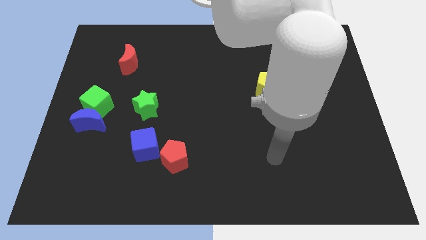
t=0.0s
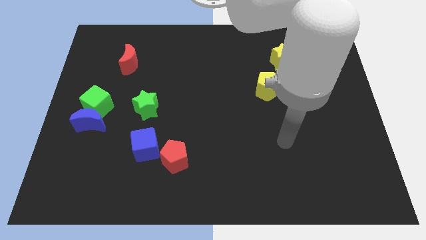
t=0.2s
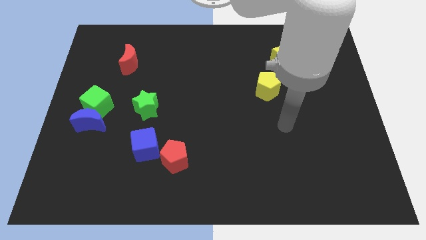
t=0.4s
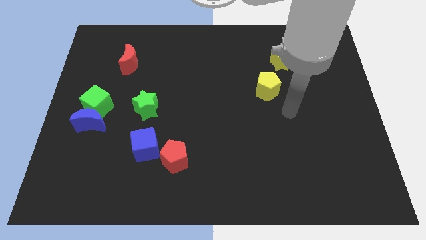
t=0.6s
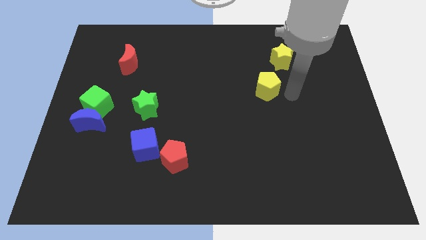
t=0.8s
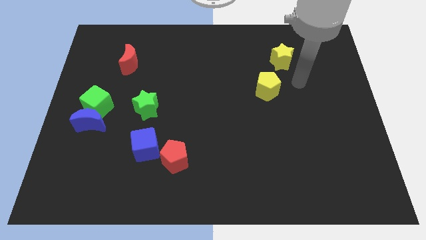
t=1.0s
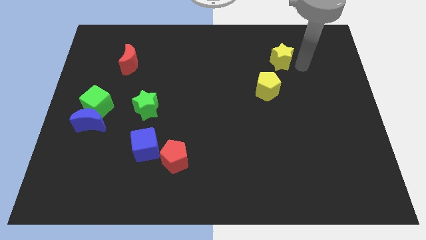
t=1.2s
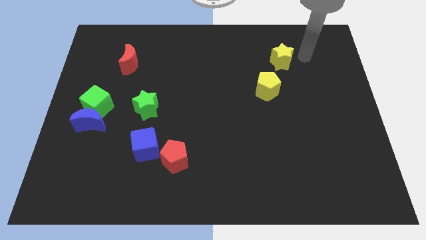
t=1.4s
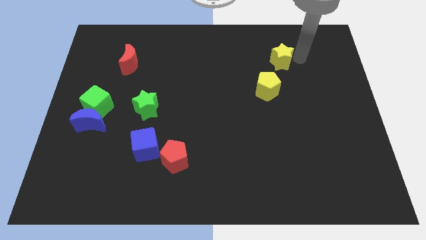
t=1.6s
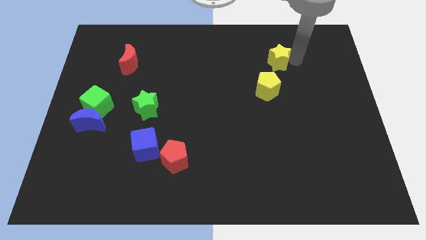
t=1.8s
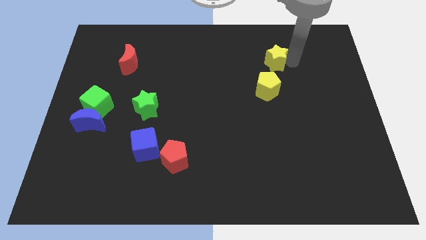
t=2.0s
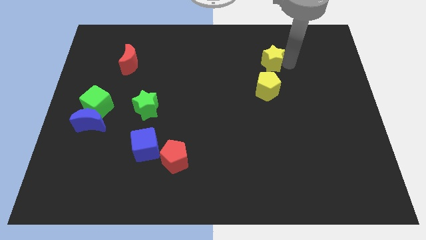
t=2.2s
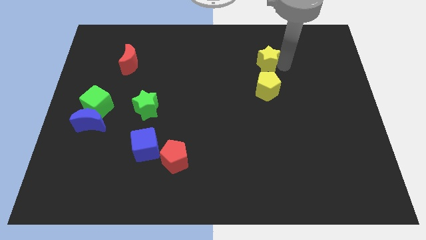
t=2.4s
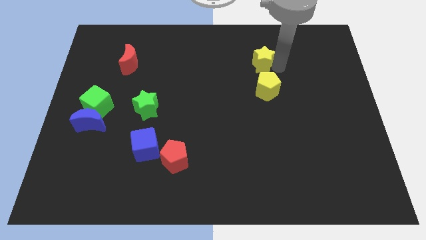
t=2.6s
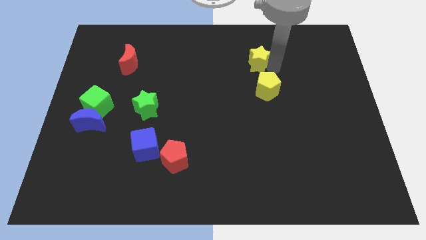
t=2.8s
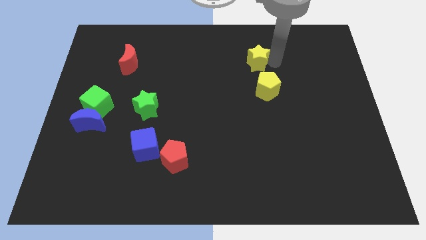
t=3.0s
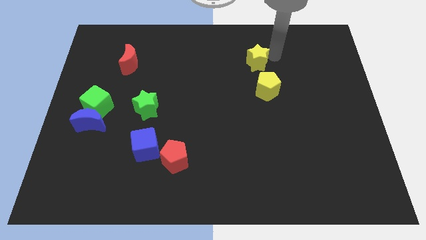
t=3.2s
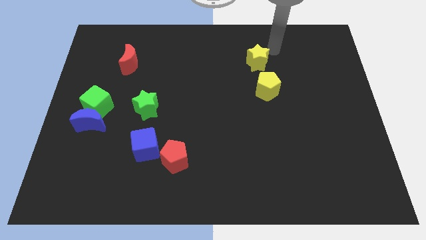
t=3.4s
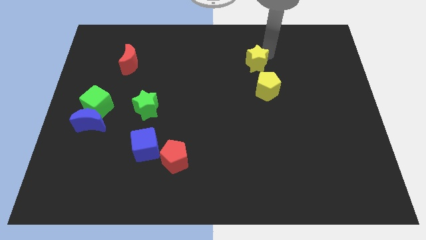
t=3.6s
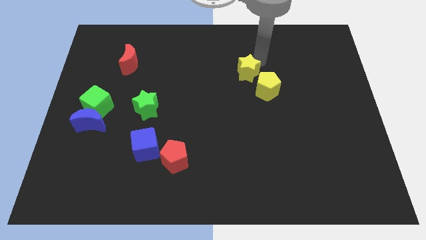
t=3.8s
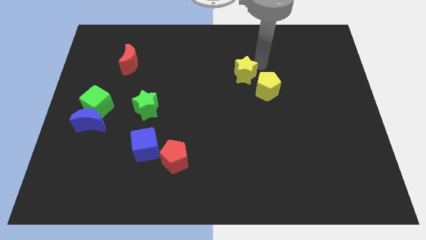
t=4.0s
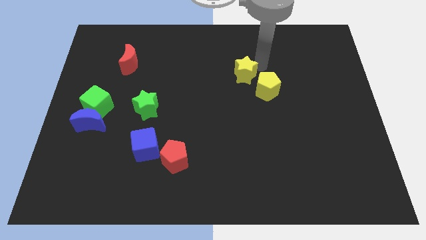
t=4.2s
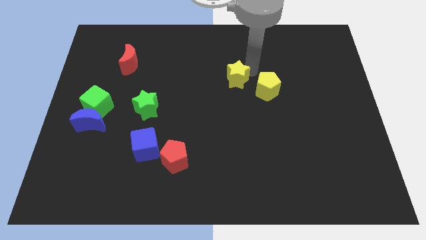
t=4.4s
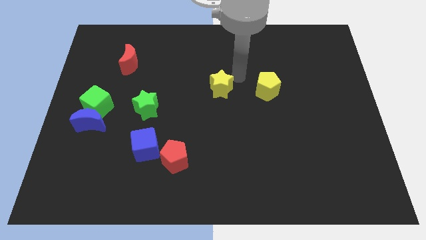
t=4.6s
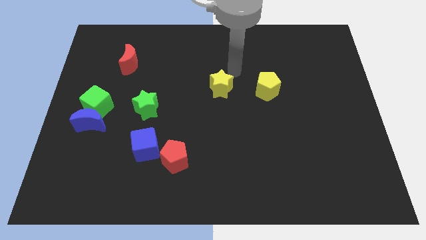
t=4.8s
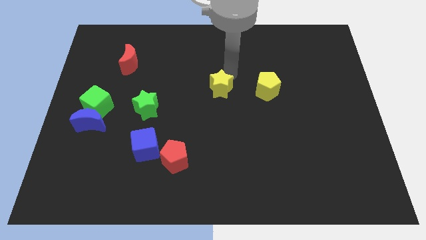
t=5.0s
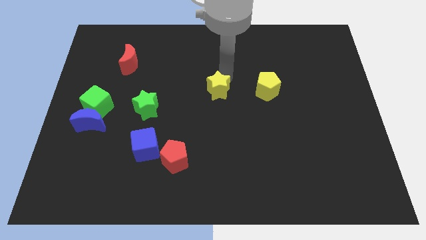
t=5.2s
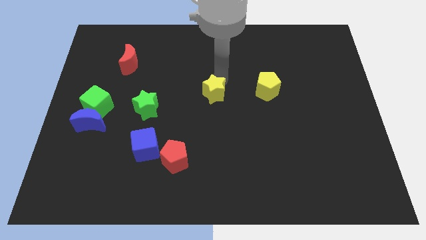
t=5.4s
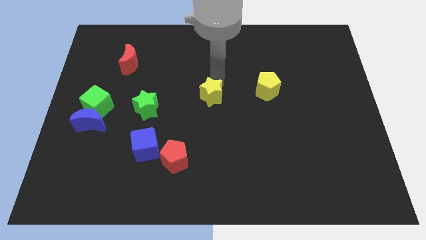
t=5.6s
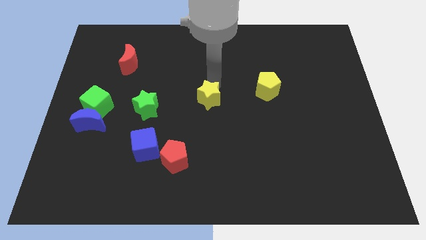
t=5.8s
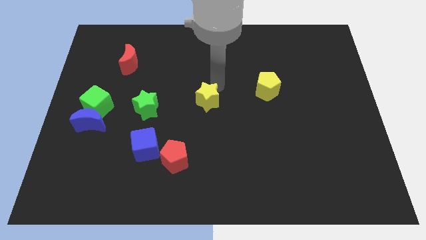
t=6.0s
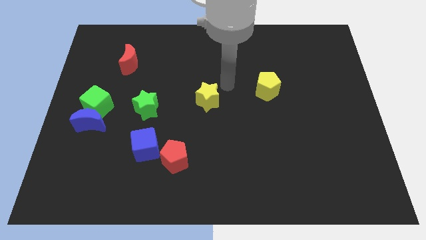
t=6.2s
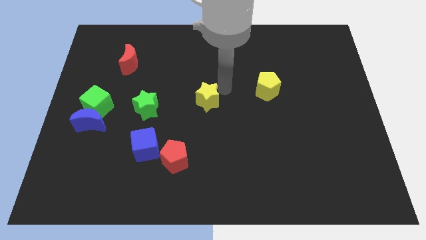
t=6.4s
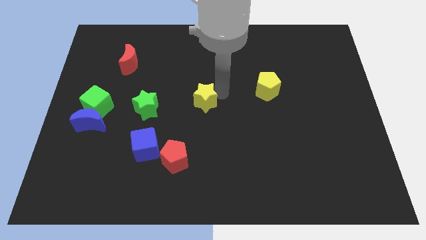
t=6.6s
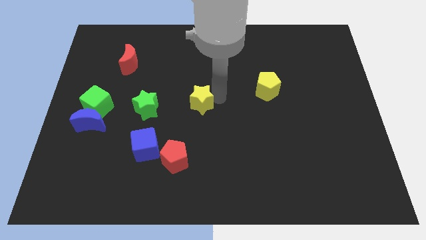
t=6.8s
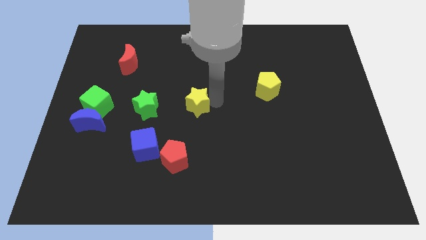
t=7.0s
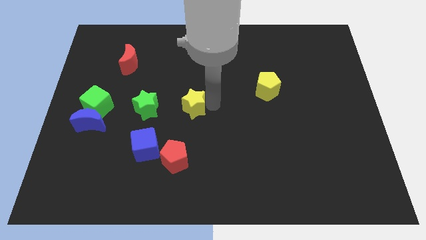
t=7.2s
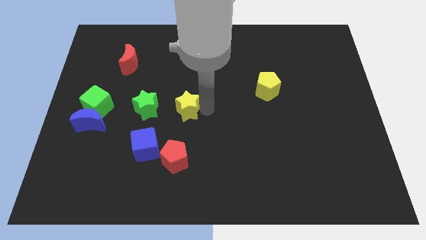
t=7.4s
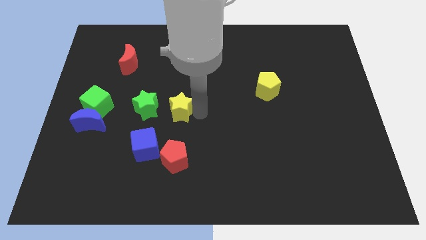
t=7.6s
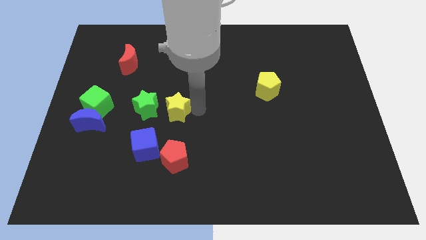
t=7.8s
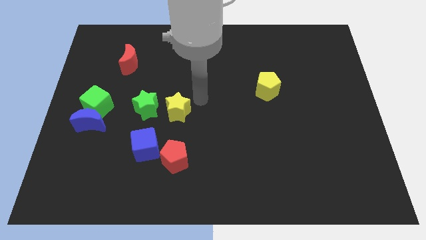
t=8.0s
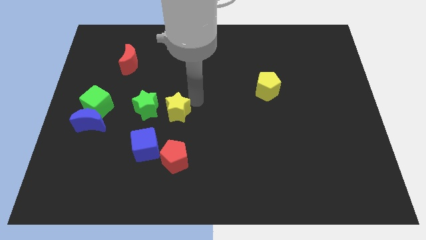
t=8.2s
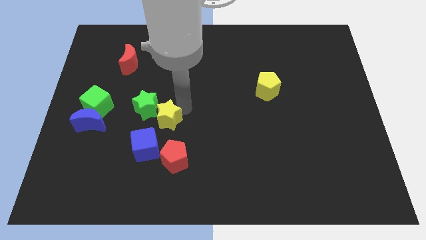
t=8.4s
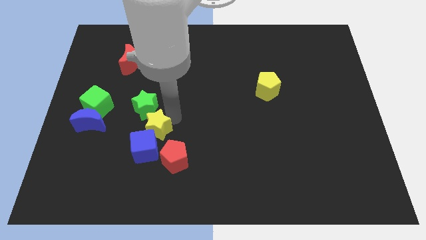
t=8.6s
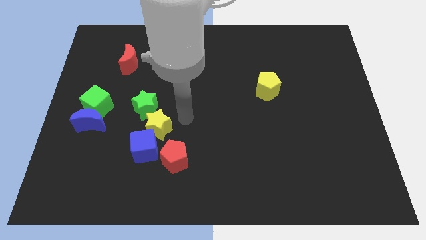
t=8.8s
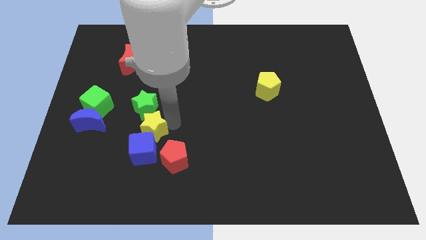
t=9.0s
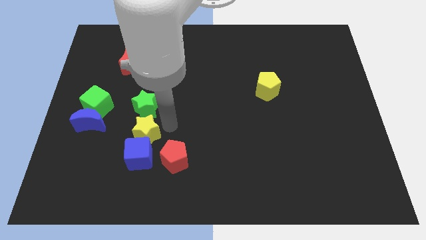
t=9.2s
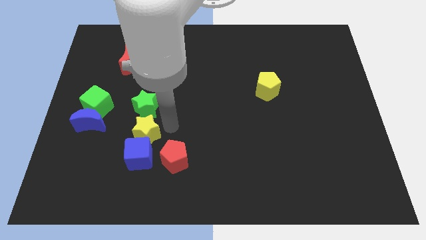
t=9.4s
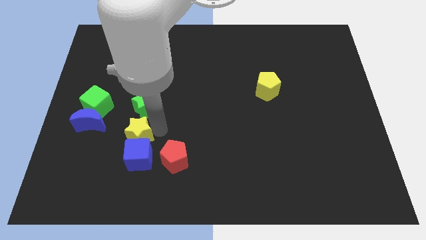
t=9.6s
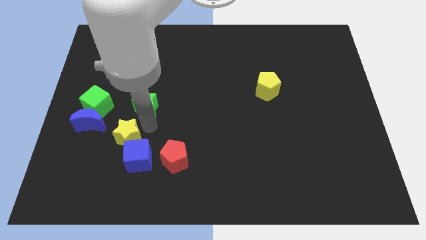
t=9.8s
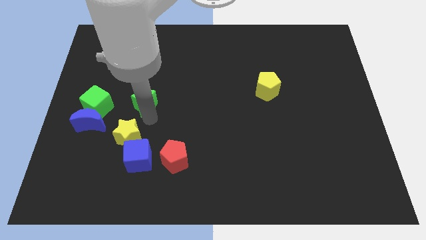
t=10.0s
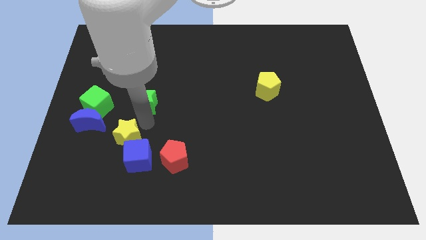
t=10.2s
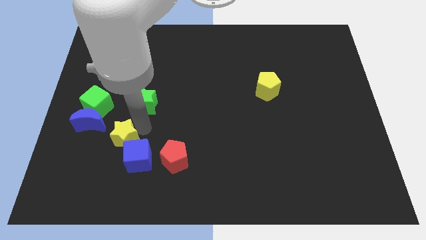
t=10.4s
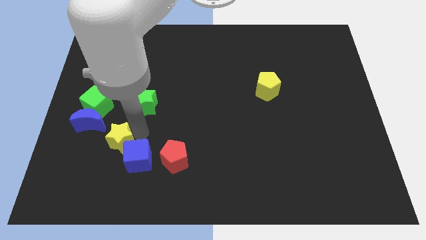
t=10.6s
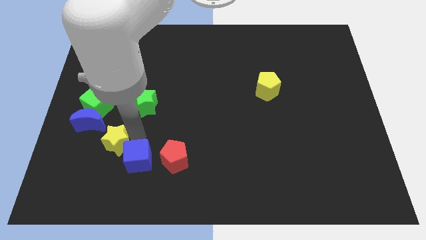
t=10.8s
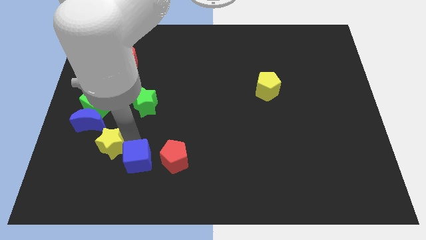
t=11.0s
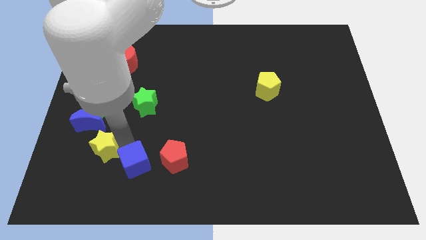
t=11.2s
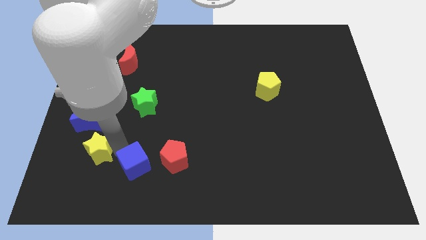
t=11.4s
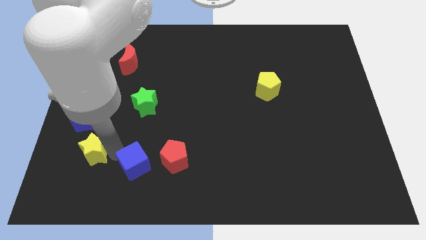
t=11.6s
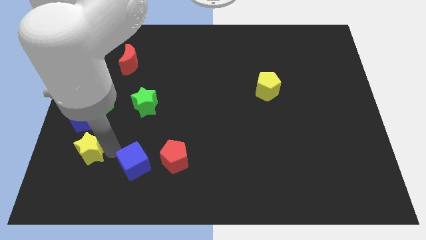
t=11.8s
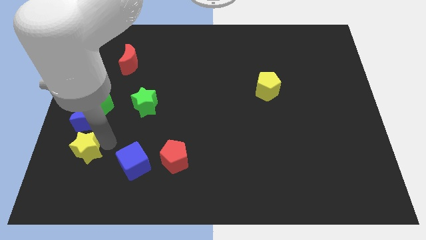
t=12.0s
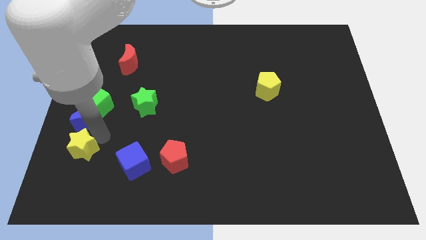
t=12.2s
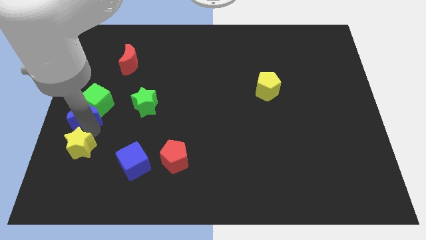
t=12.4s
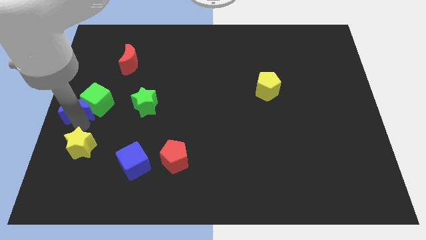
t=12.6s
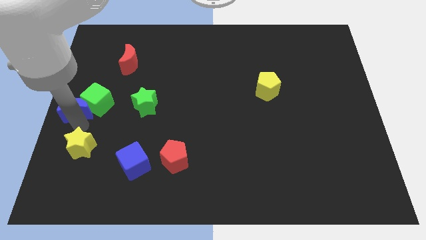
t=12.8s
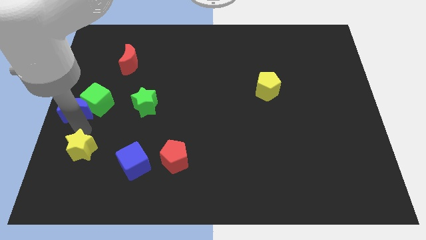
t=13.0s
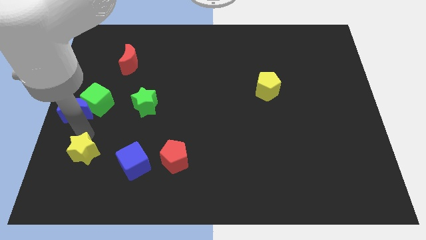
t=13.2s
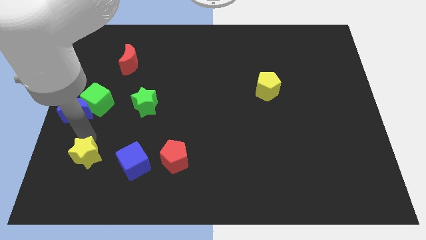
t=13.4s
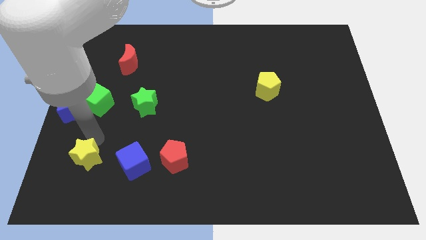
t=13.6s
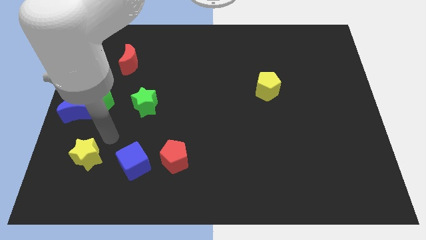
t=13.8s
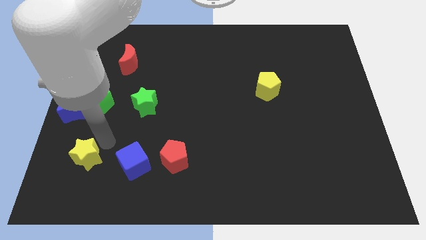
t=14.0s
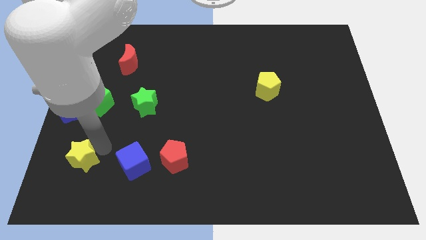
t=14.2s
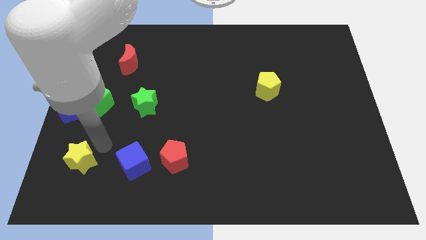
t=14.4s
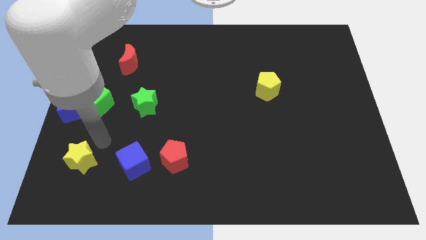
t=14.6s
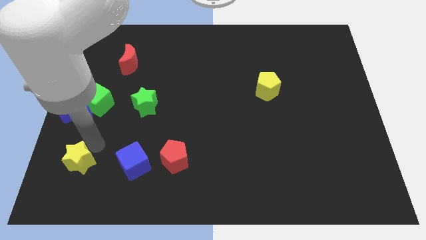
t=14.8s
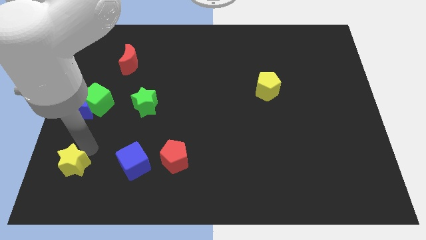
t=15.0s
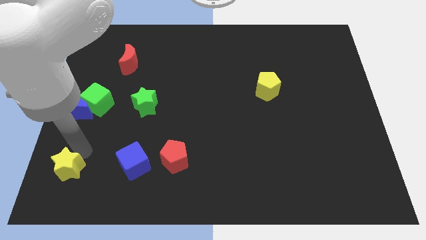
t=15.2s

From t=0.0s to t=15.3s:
slide the yellow star to the bottom left corner
